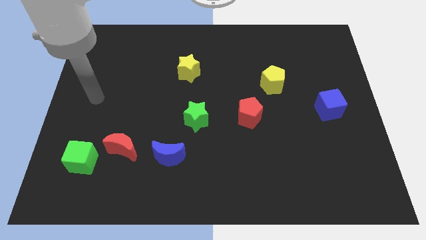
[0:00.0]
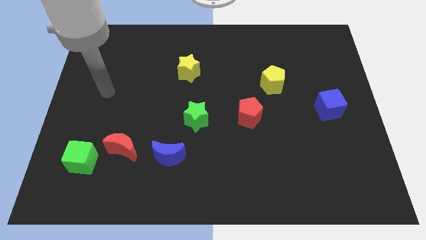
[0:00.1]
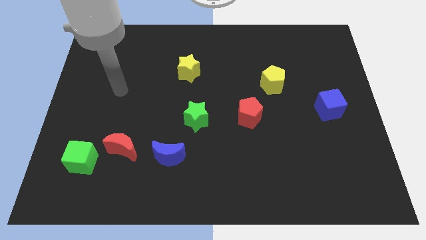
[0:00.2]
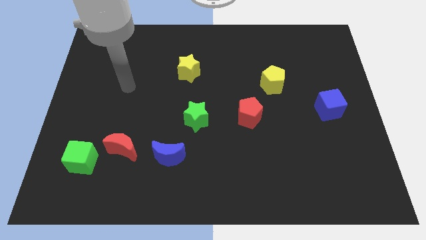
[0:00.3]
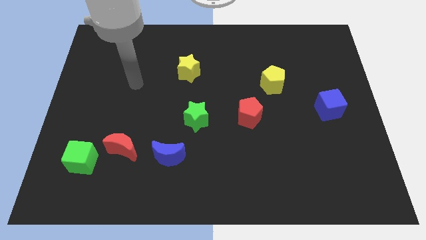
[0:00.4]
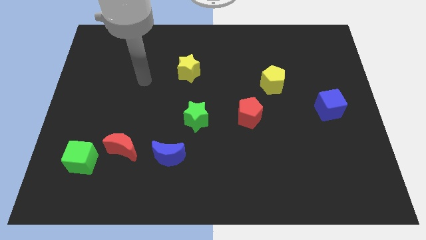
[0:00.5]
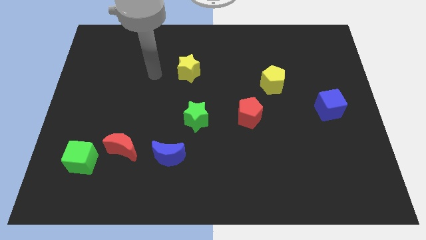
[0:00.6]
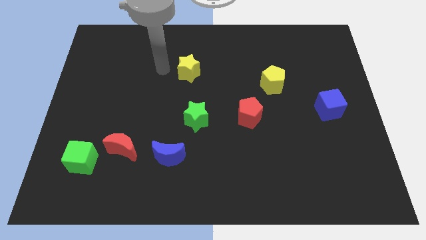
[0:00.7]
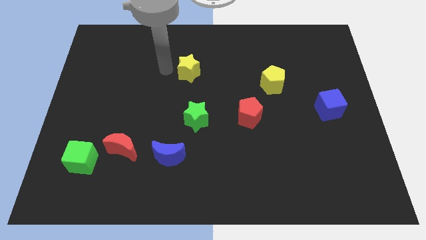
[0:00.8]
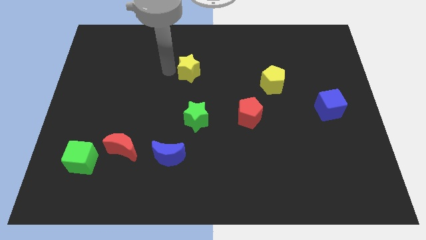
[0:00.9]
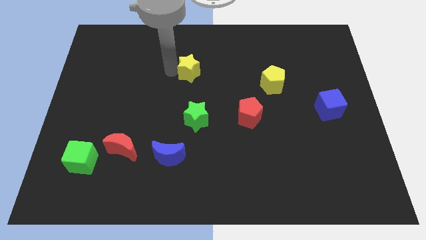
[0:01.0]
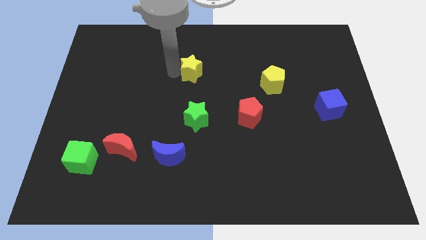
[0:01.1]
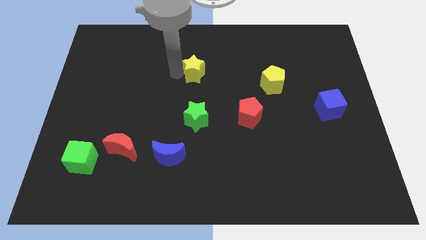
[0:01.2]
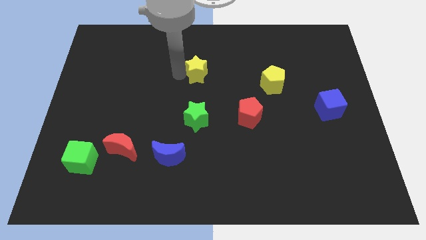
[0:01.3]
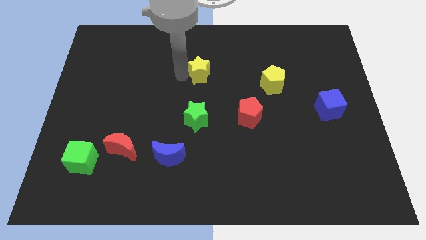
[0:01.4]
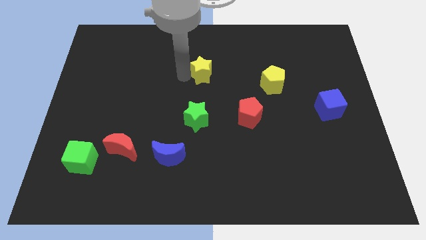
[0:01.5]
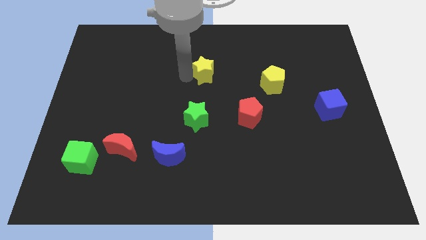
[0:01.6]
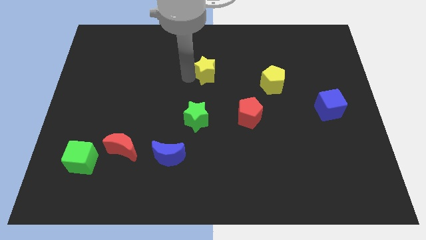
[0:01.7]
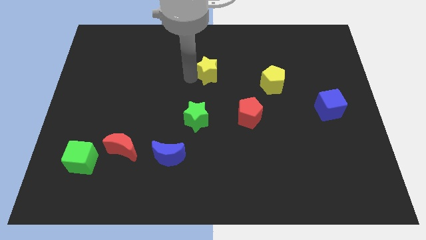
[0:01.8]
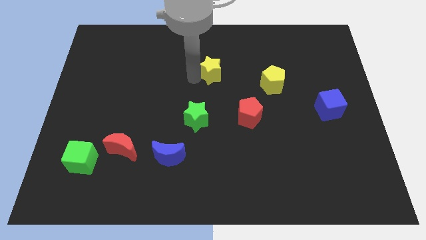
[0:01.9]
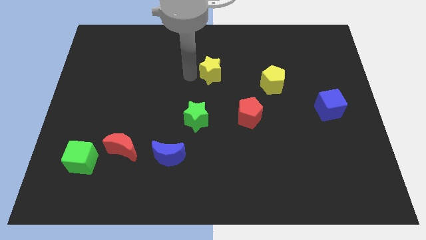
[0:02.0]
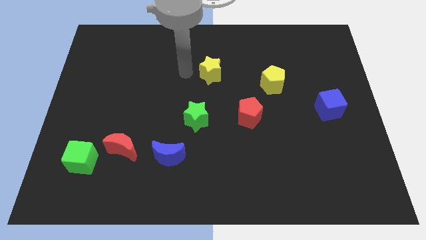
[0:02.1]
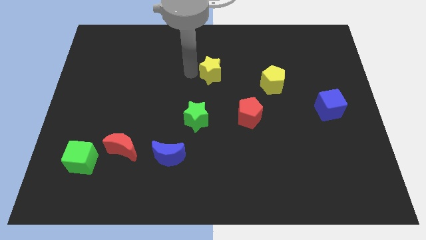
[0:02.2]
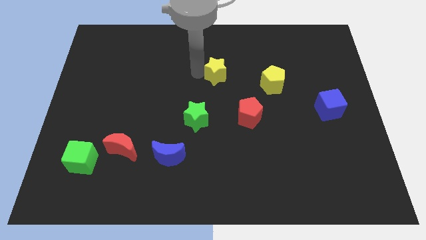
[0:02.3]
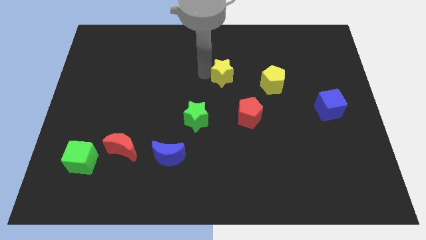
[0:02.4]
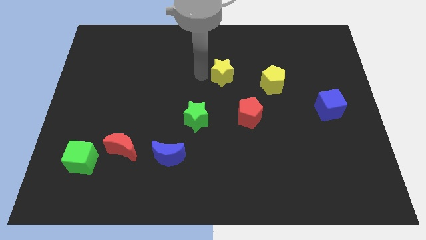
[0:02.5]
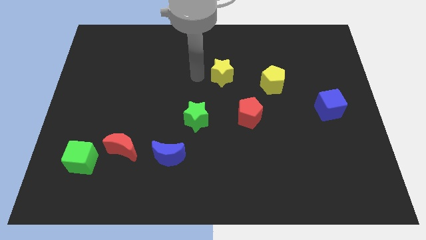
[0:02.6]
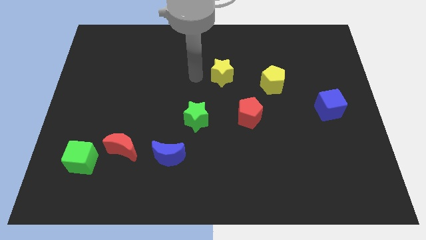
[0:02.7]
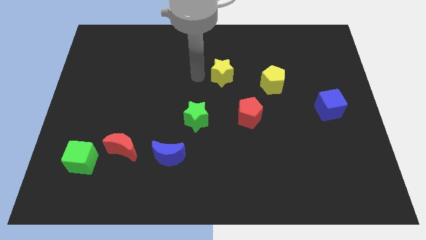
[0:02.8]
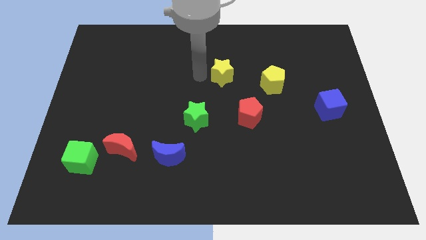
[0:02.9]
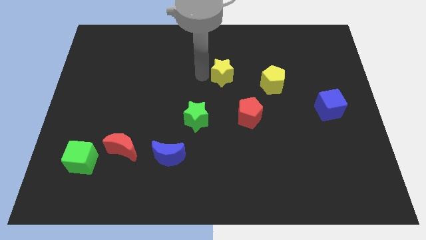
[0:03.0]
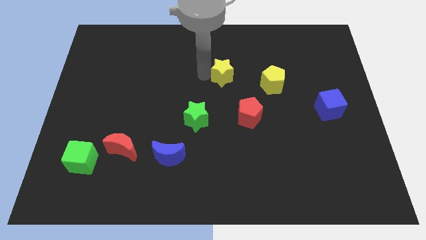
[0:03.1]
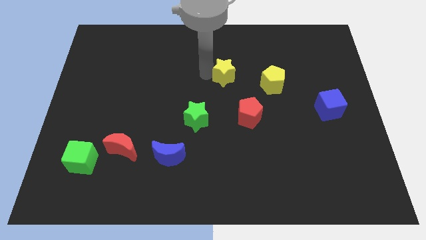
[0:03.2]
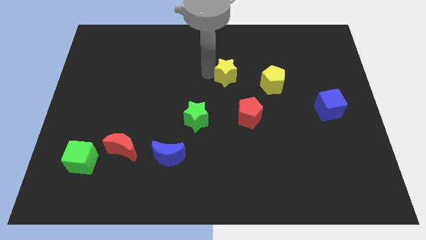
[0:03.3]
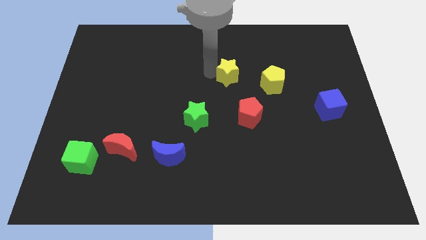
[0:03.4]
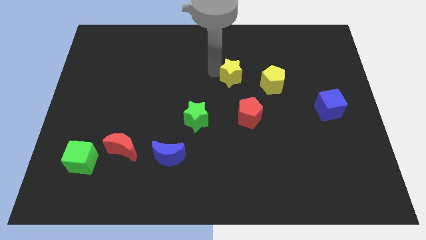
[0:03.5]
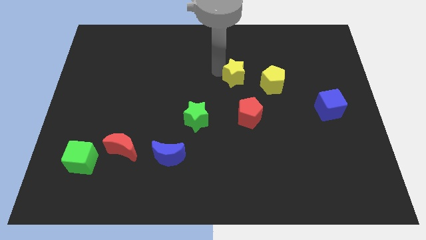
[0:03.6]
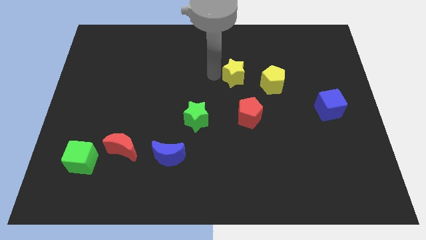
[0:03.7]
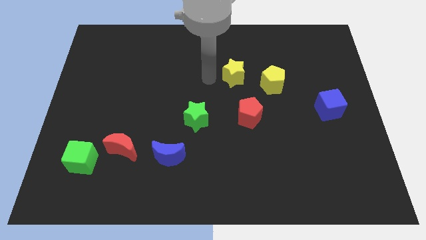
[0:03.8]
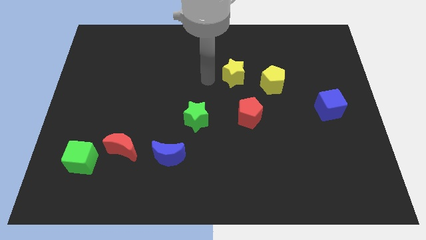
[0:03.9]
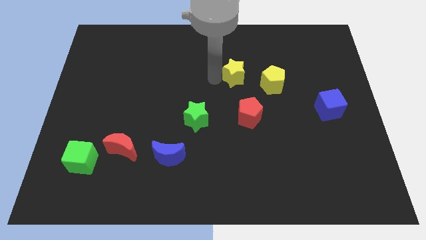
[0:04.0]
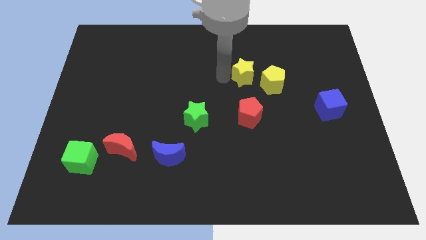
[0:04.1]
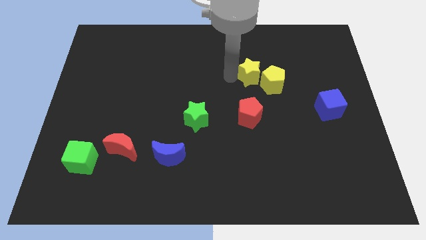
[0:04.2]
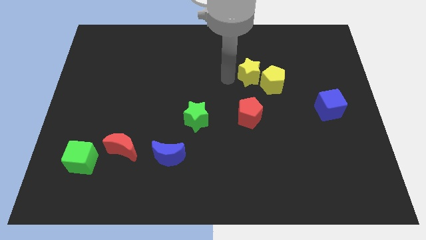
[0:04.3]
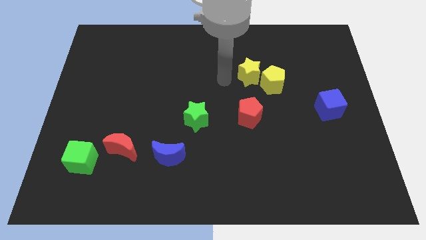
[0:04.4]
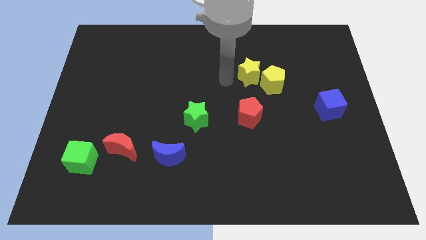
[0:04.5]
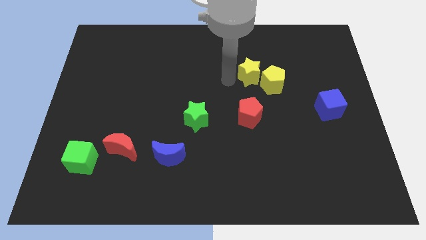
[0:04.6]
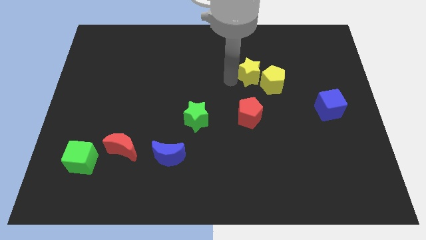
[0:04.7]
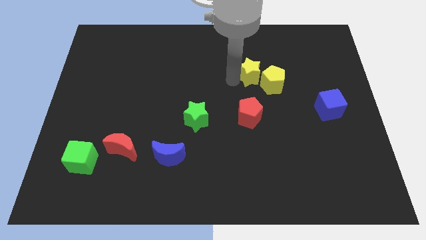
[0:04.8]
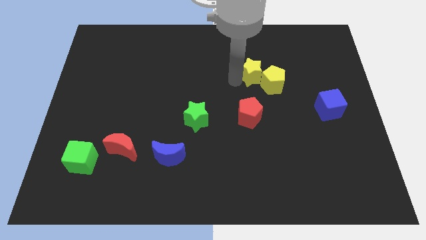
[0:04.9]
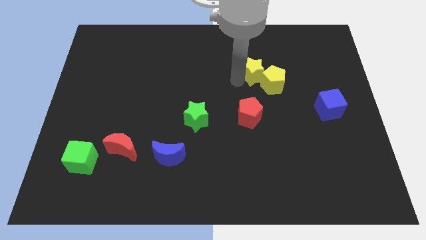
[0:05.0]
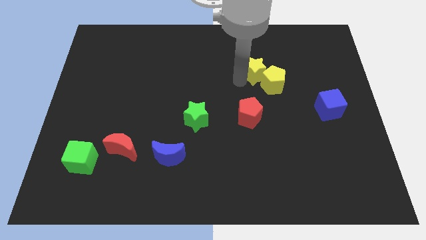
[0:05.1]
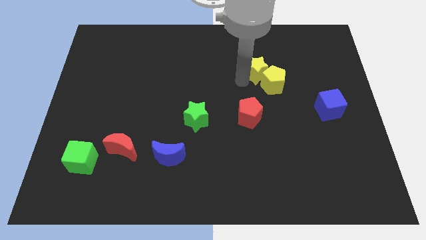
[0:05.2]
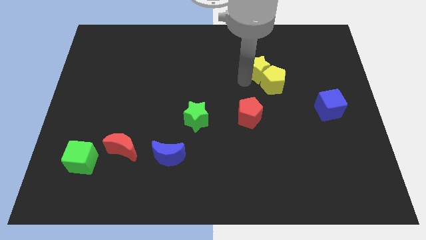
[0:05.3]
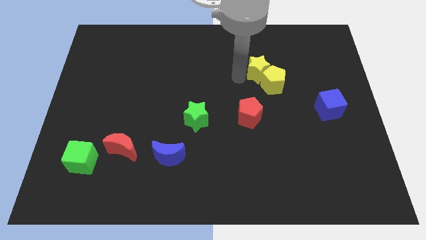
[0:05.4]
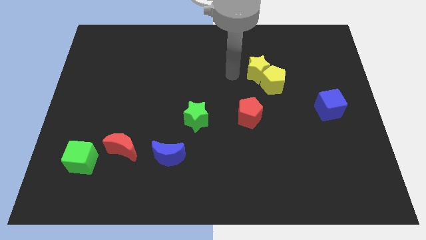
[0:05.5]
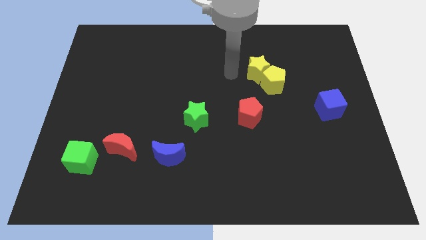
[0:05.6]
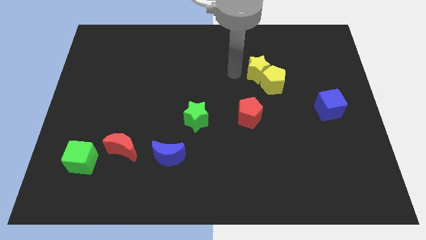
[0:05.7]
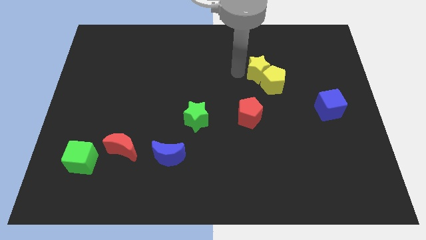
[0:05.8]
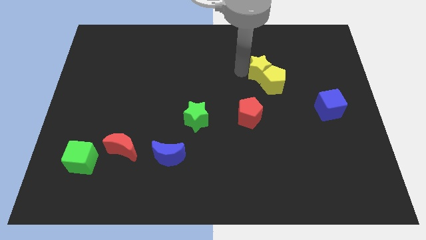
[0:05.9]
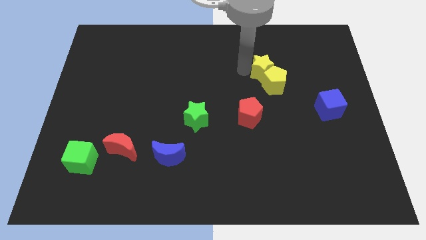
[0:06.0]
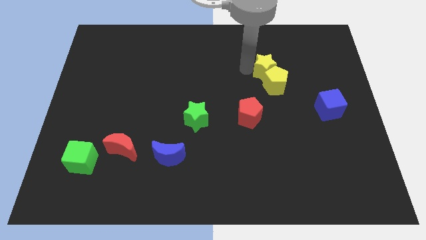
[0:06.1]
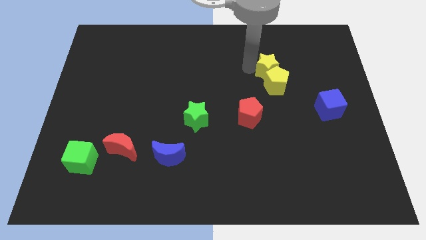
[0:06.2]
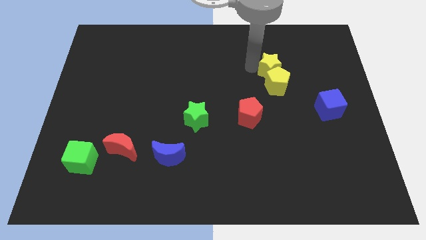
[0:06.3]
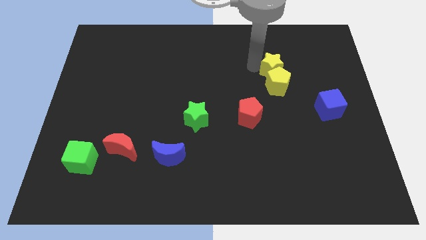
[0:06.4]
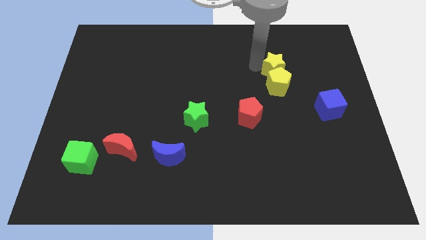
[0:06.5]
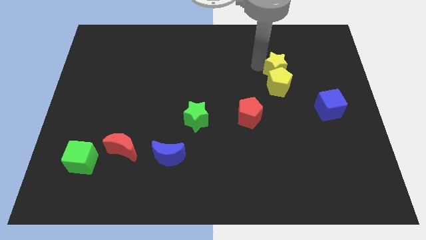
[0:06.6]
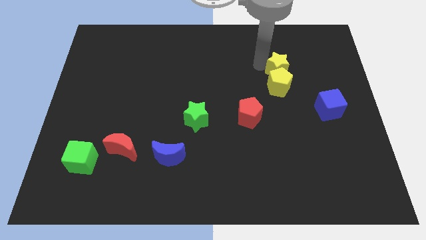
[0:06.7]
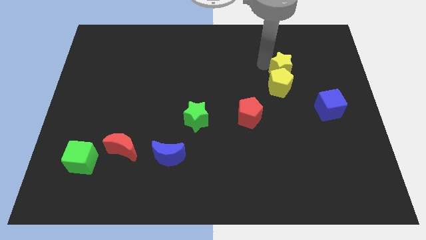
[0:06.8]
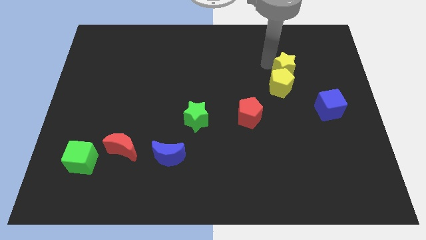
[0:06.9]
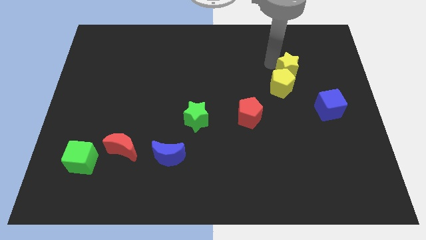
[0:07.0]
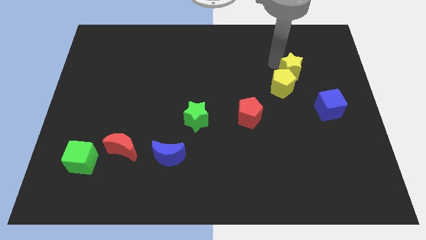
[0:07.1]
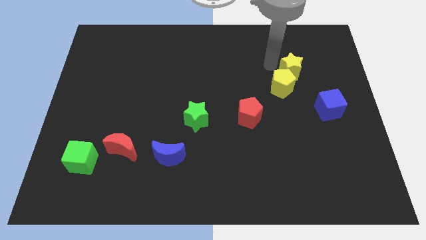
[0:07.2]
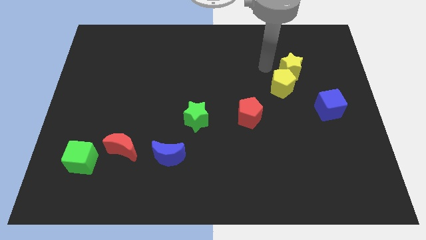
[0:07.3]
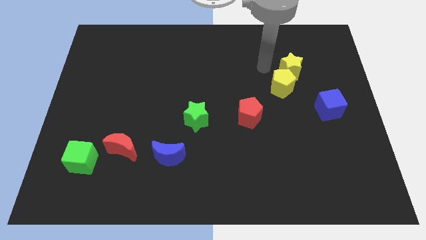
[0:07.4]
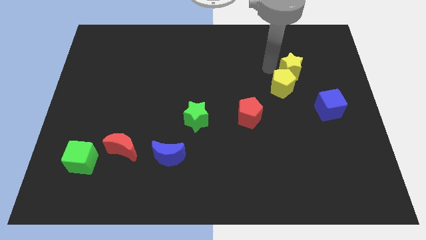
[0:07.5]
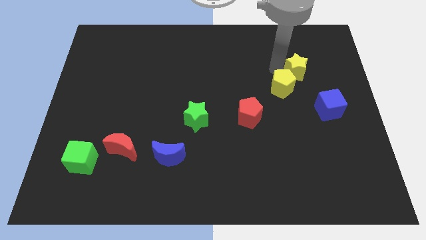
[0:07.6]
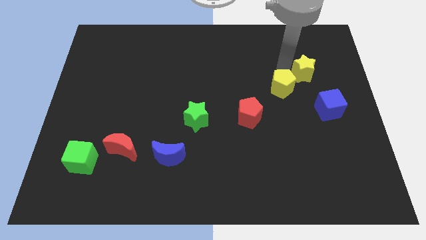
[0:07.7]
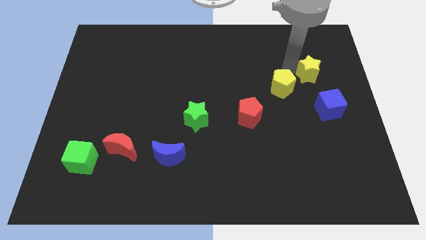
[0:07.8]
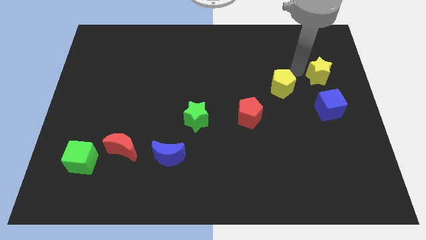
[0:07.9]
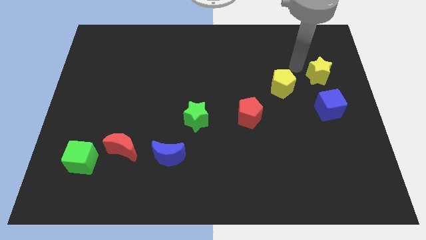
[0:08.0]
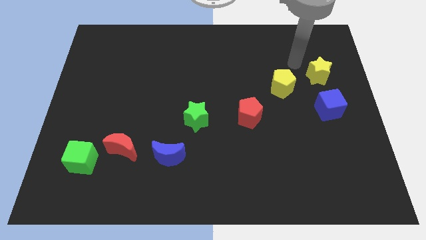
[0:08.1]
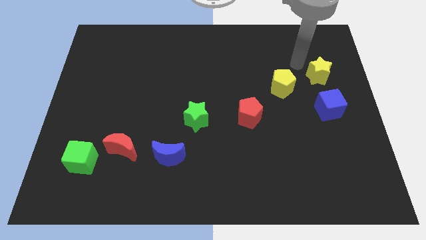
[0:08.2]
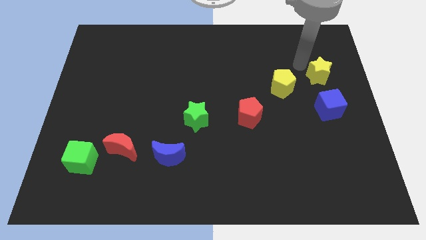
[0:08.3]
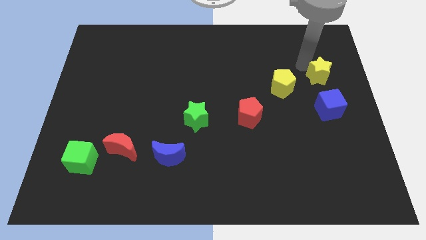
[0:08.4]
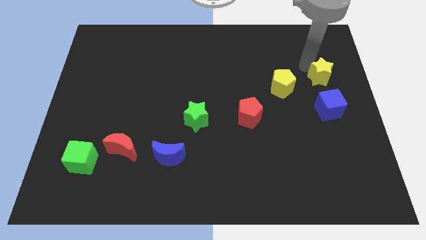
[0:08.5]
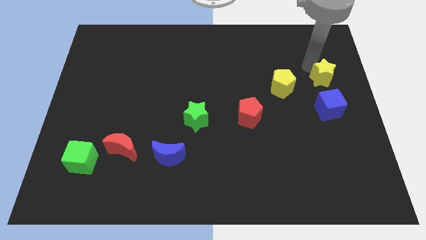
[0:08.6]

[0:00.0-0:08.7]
put the yellow star to the center right
